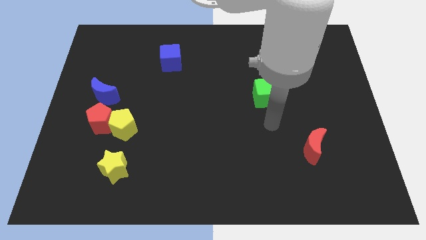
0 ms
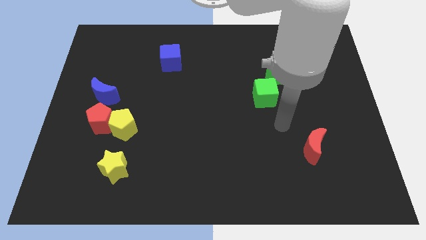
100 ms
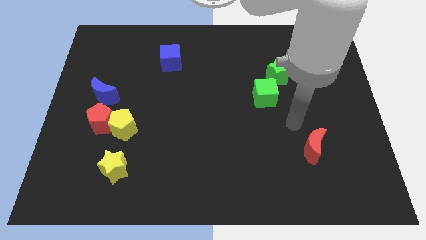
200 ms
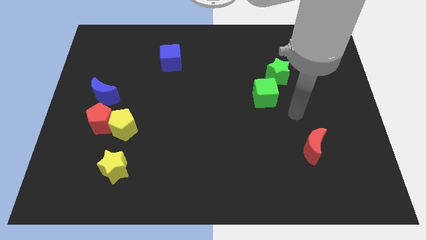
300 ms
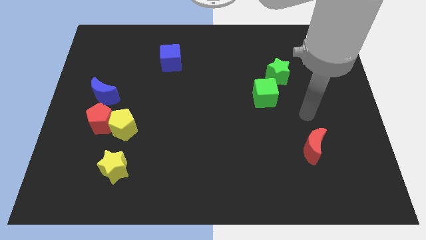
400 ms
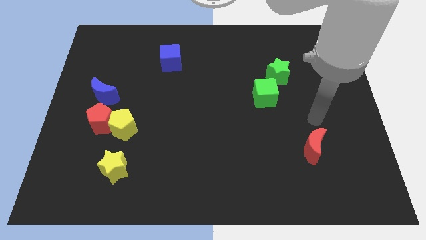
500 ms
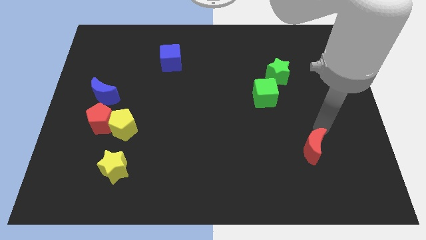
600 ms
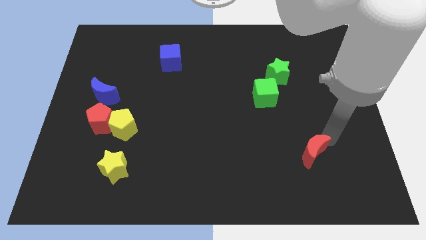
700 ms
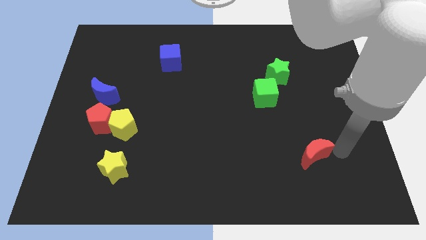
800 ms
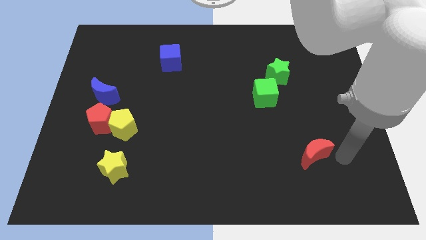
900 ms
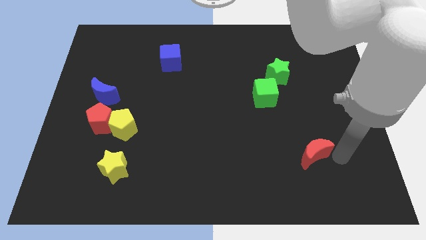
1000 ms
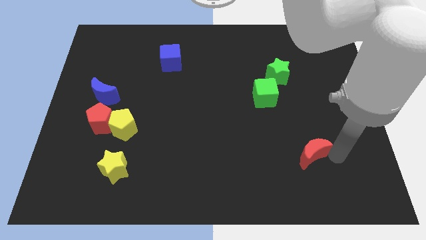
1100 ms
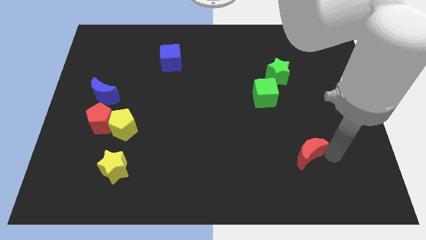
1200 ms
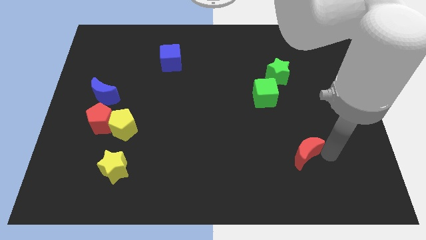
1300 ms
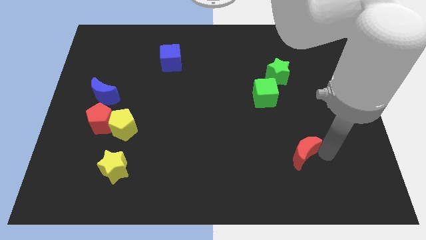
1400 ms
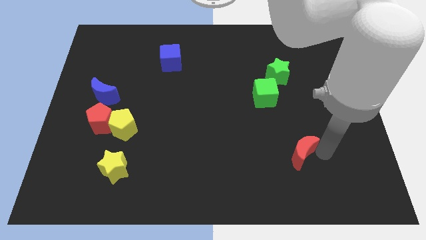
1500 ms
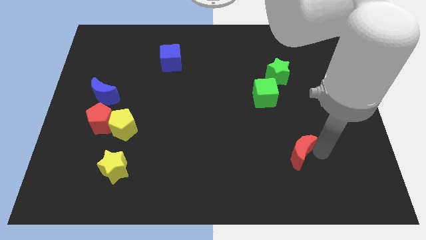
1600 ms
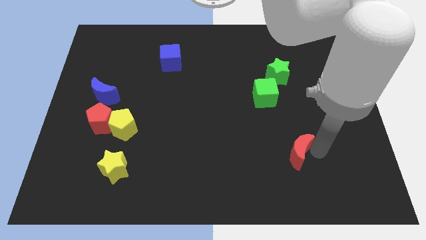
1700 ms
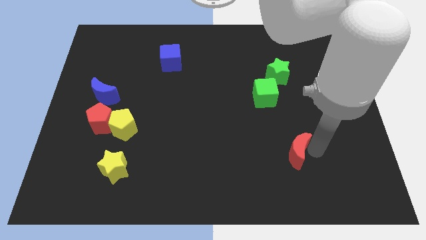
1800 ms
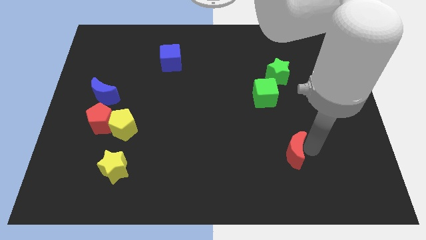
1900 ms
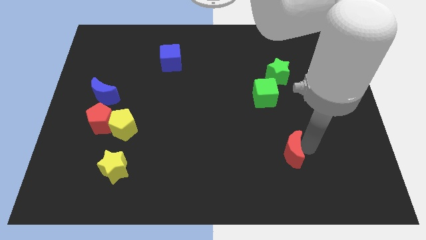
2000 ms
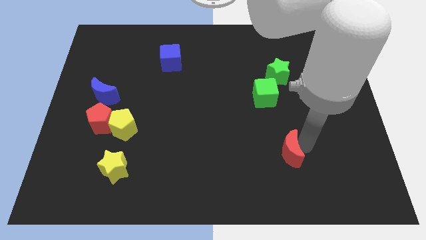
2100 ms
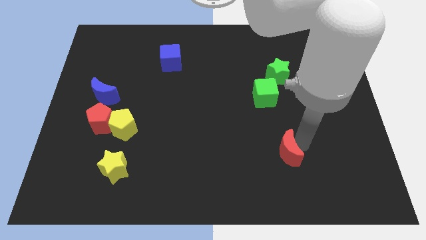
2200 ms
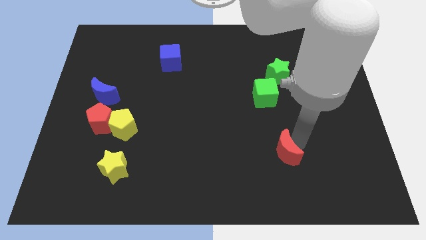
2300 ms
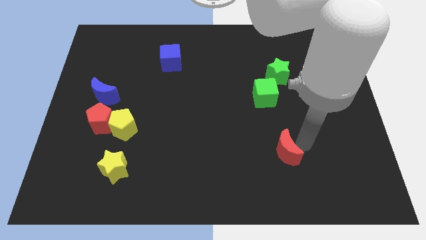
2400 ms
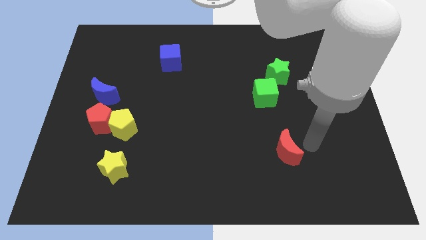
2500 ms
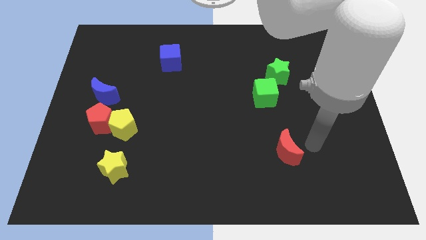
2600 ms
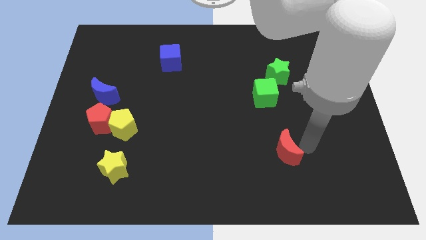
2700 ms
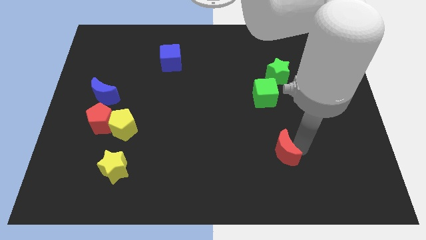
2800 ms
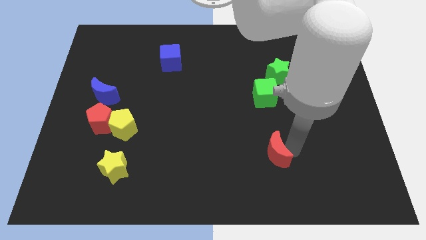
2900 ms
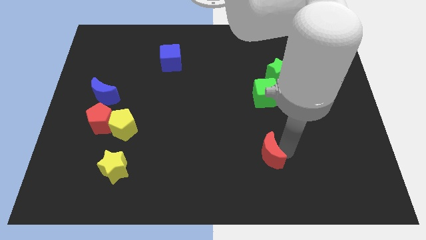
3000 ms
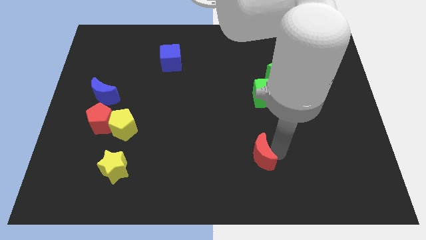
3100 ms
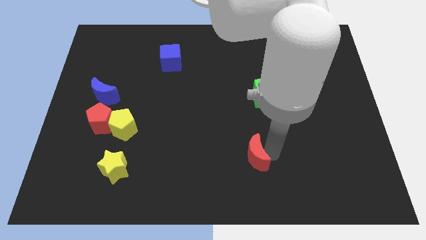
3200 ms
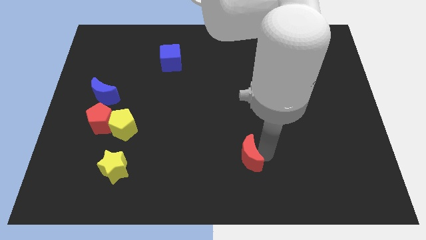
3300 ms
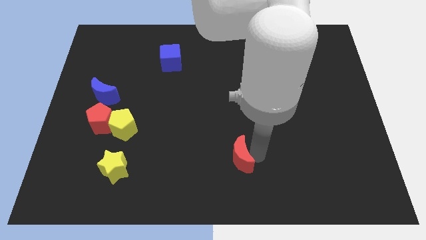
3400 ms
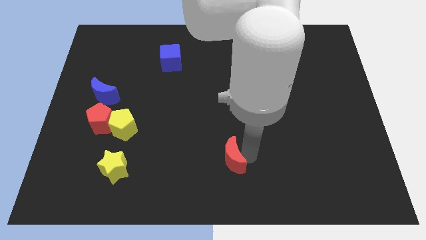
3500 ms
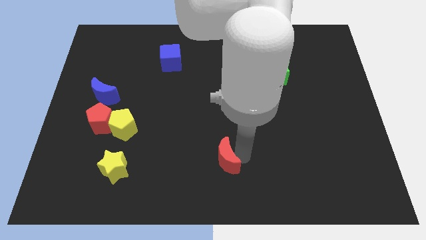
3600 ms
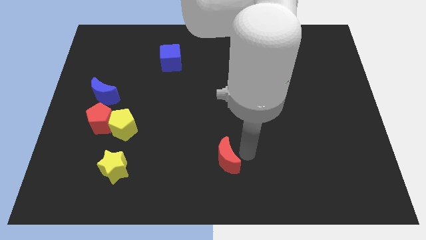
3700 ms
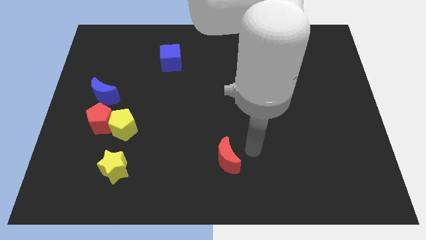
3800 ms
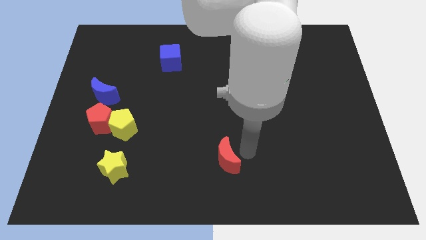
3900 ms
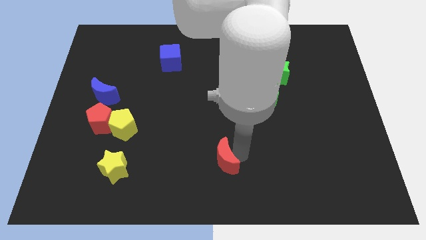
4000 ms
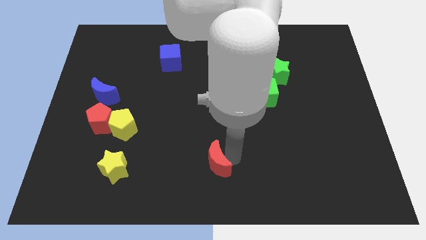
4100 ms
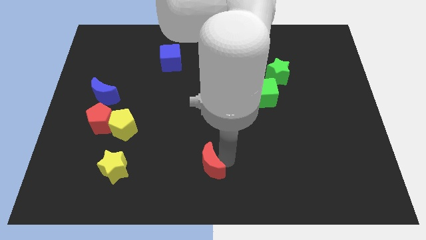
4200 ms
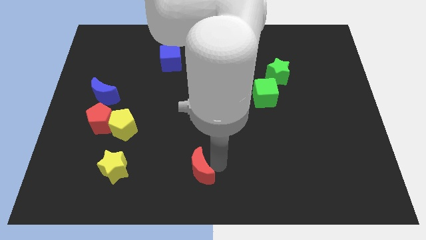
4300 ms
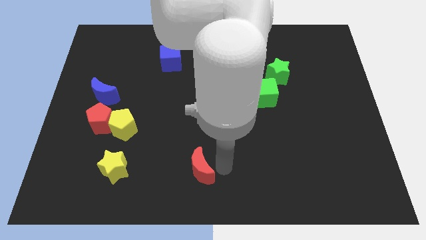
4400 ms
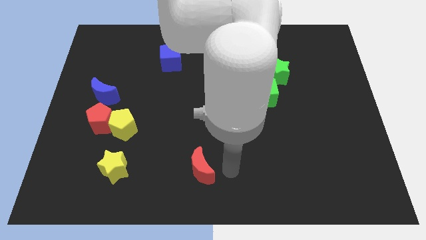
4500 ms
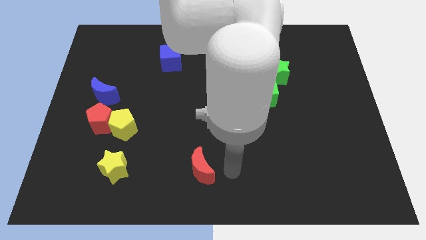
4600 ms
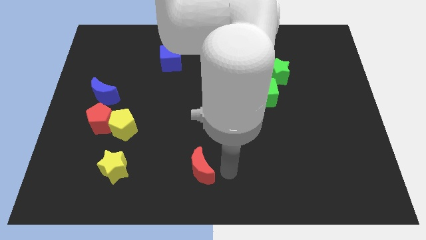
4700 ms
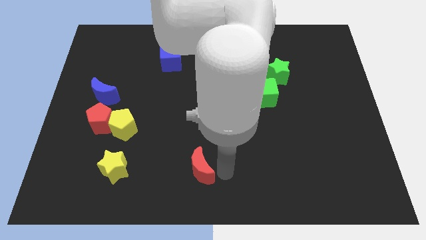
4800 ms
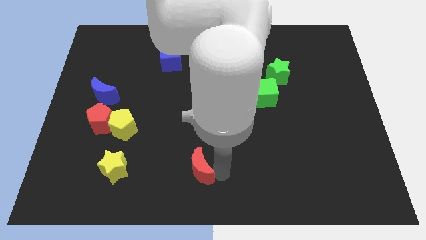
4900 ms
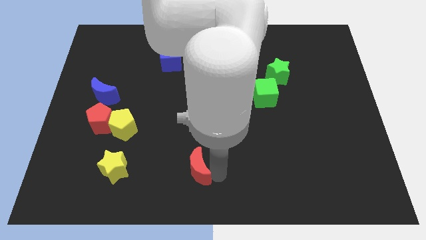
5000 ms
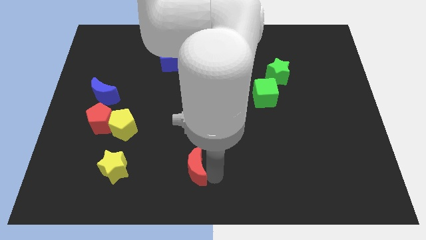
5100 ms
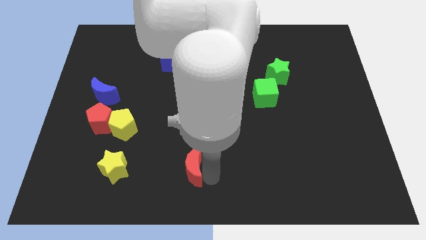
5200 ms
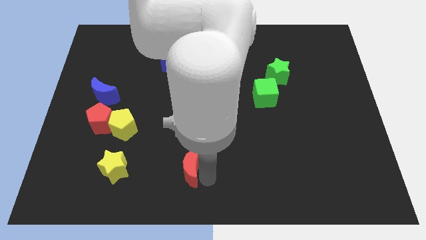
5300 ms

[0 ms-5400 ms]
put the red moon to the right of the yellow star

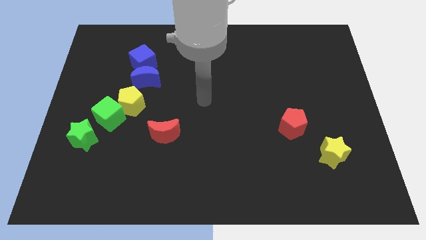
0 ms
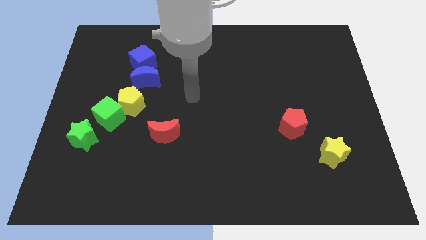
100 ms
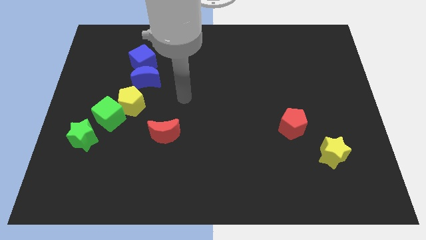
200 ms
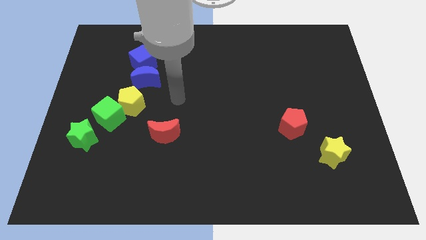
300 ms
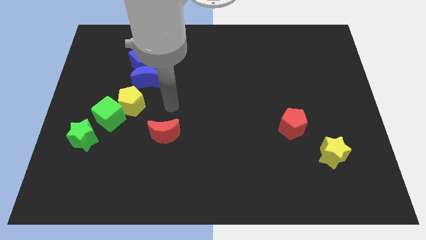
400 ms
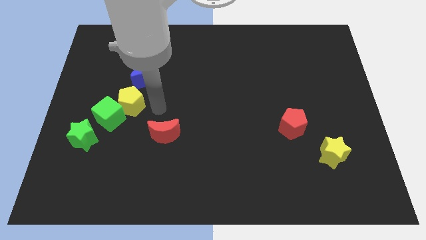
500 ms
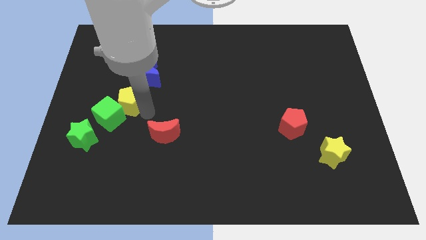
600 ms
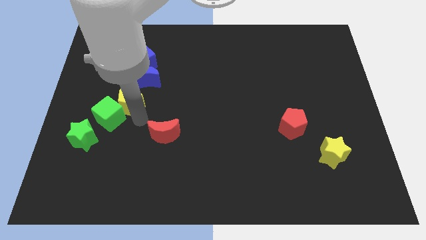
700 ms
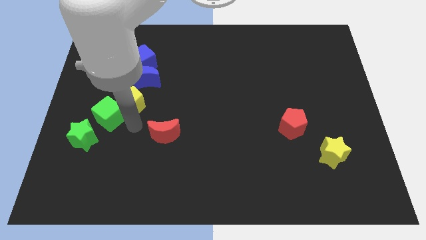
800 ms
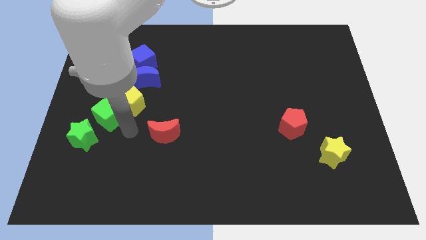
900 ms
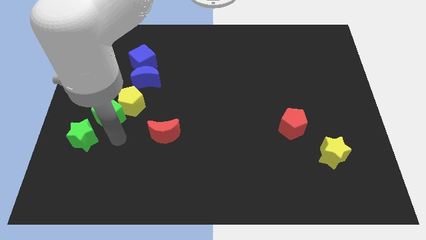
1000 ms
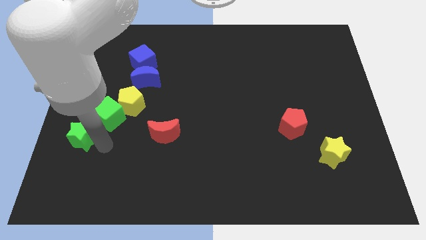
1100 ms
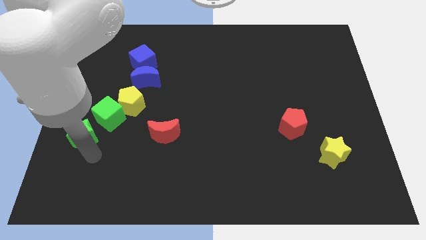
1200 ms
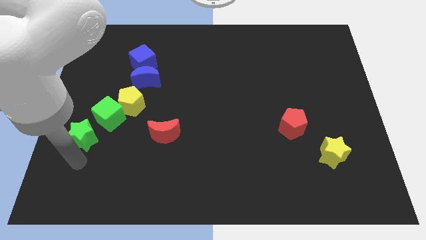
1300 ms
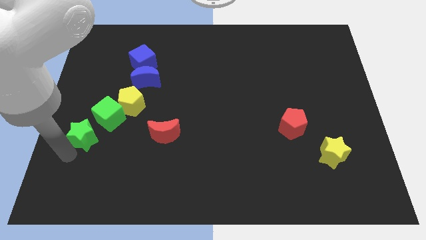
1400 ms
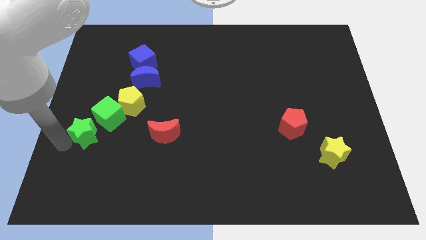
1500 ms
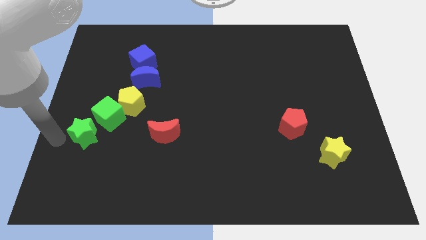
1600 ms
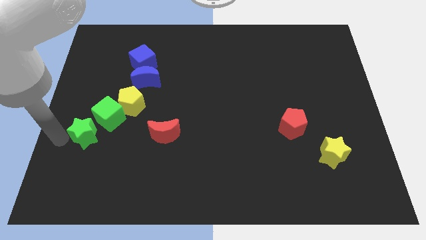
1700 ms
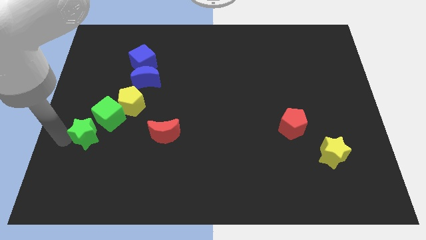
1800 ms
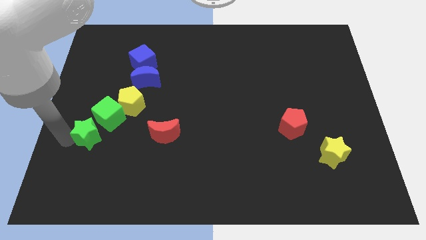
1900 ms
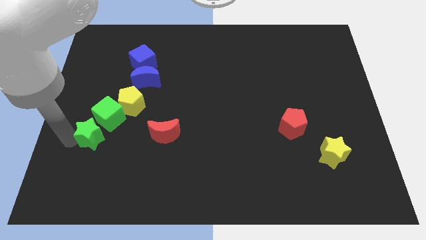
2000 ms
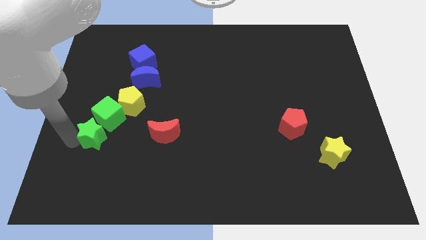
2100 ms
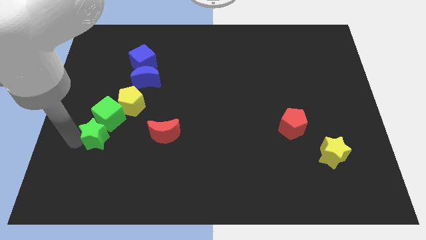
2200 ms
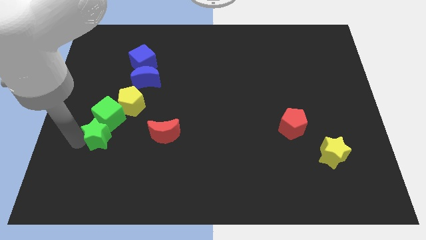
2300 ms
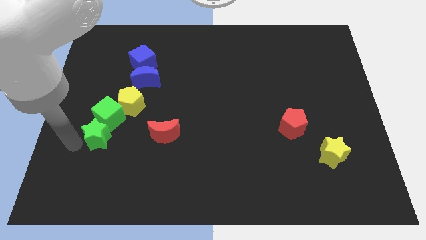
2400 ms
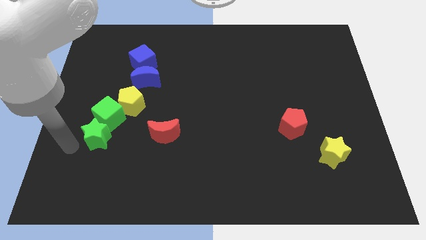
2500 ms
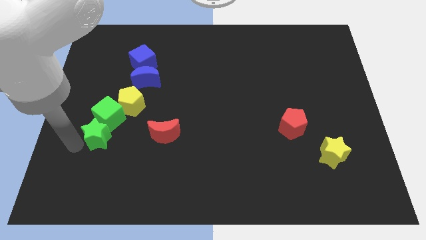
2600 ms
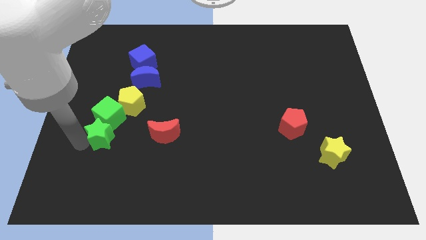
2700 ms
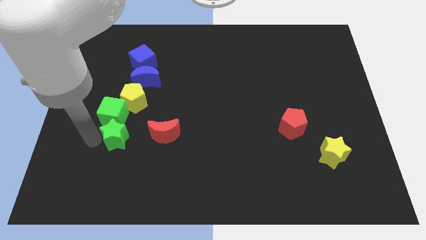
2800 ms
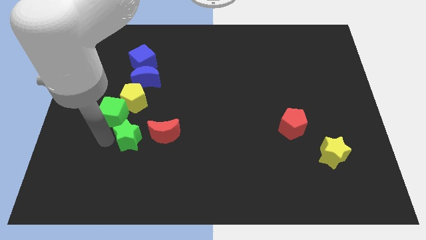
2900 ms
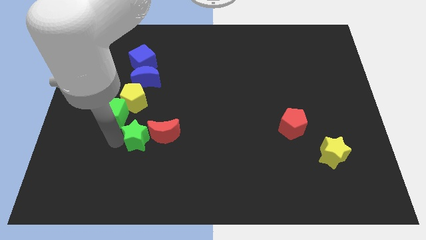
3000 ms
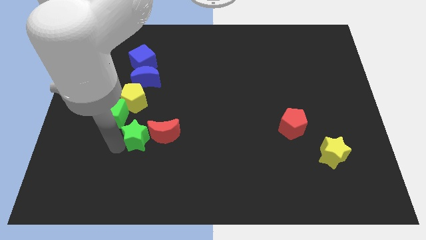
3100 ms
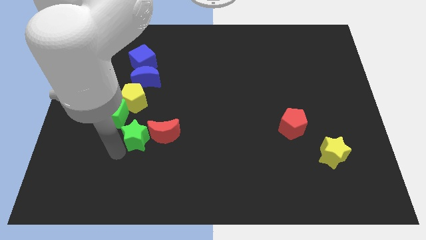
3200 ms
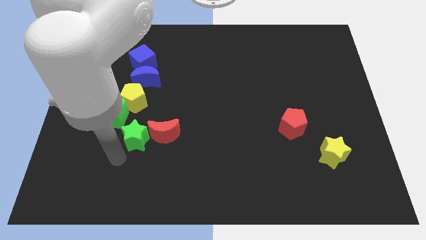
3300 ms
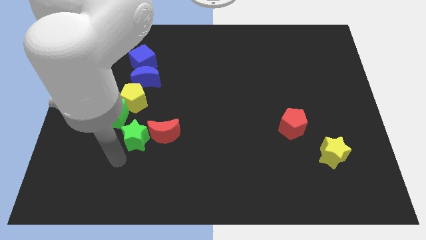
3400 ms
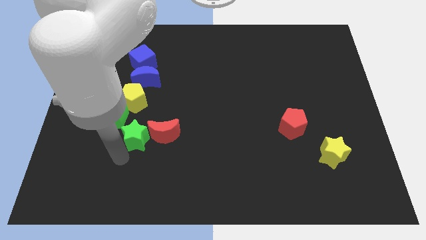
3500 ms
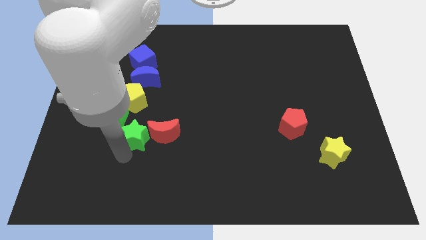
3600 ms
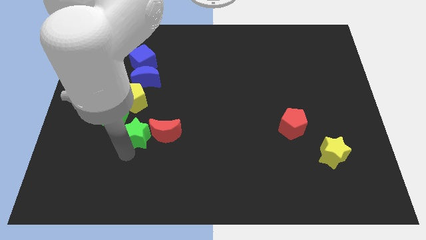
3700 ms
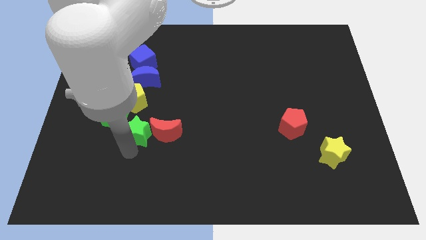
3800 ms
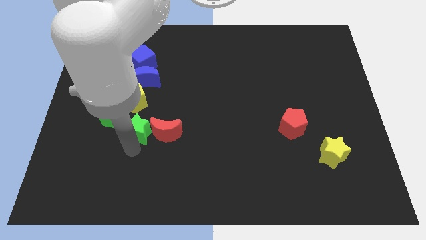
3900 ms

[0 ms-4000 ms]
move the green star to the right side of the green cube
